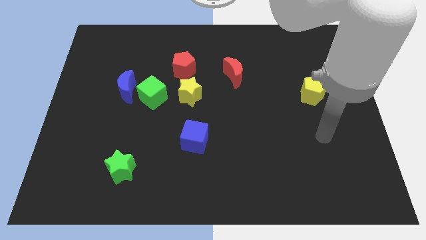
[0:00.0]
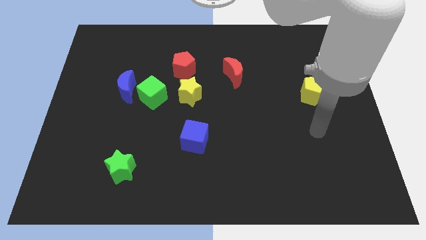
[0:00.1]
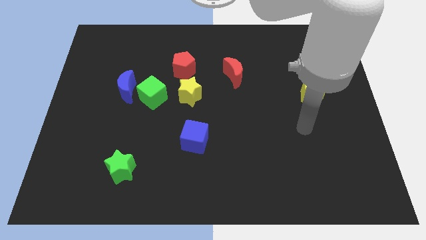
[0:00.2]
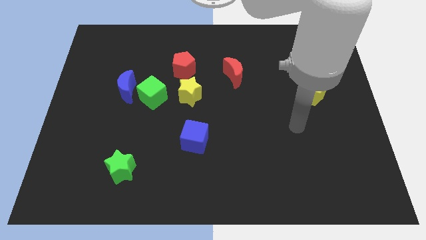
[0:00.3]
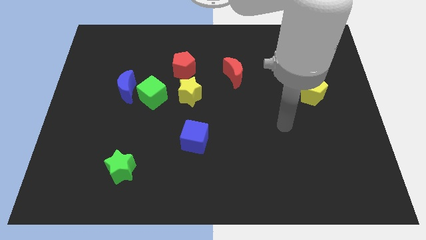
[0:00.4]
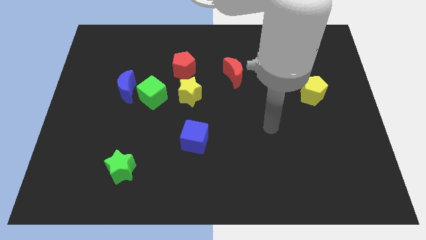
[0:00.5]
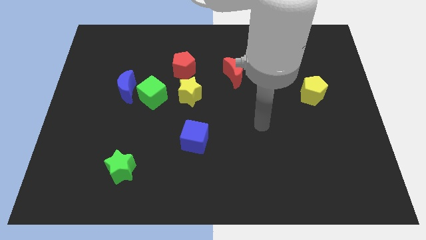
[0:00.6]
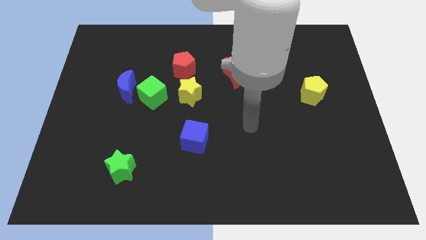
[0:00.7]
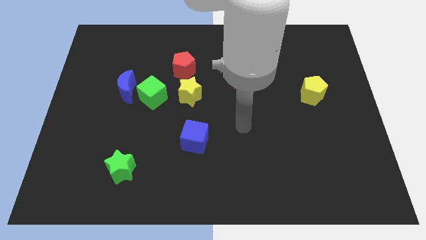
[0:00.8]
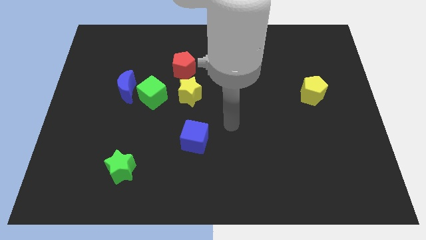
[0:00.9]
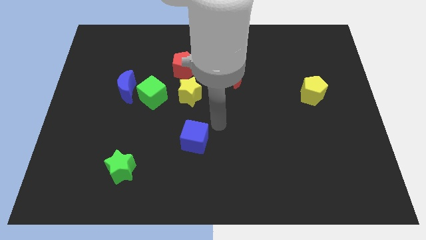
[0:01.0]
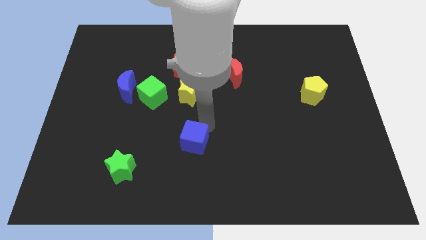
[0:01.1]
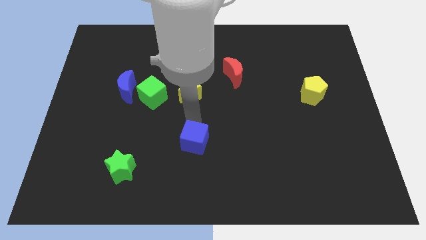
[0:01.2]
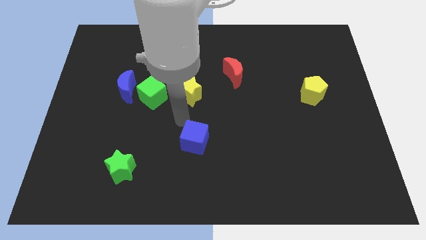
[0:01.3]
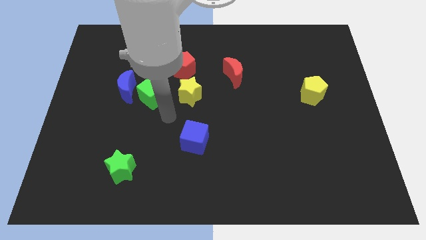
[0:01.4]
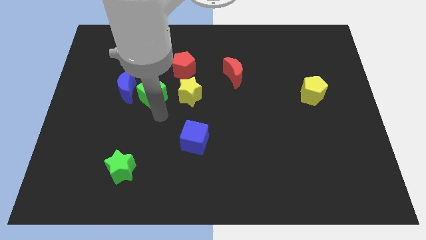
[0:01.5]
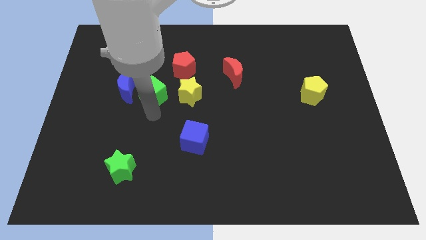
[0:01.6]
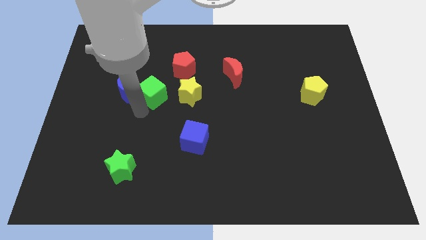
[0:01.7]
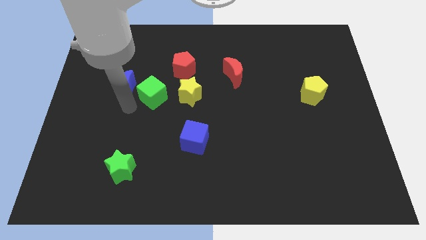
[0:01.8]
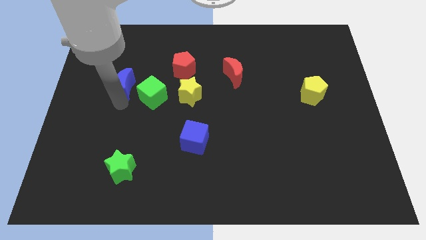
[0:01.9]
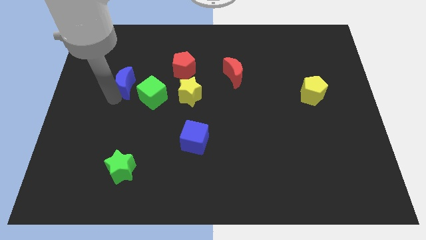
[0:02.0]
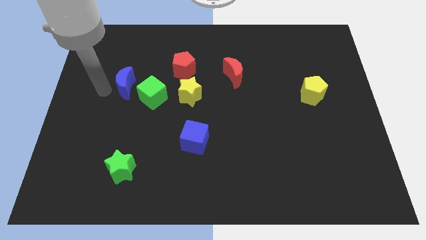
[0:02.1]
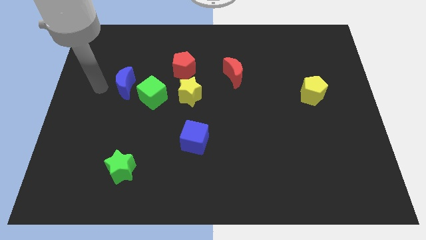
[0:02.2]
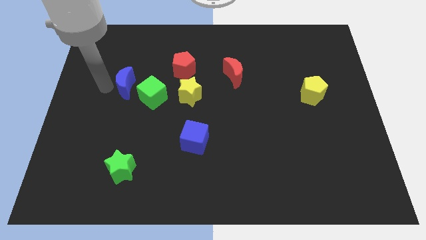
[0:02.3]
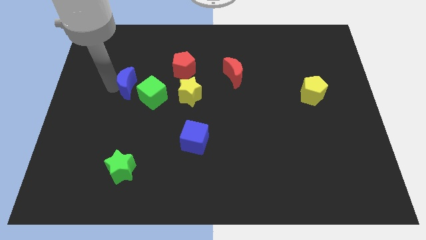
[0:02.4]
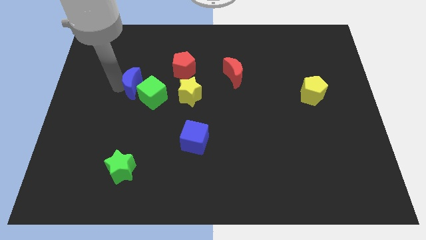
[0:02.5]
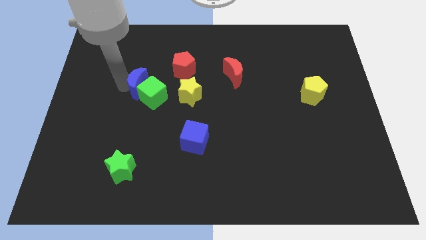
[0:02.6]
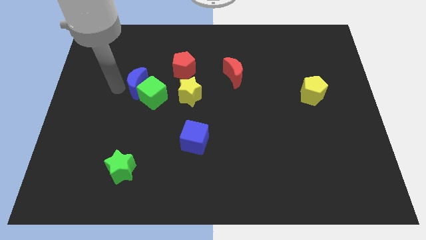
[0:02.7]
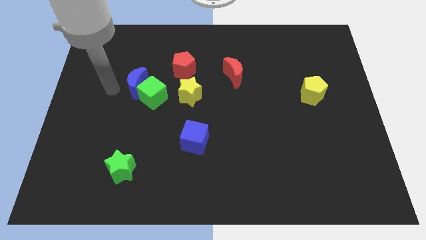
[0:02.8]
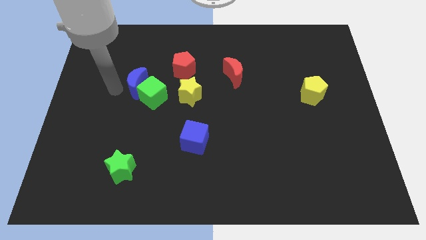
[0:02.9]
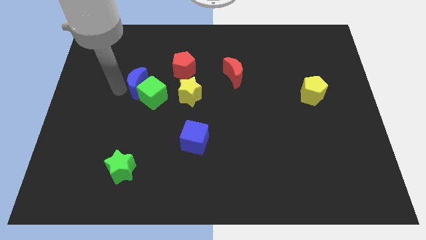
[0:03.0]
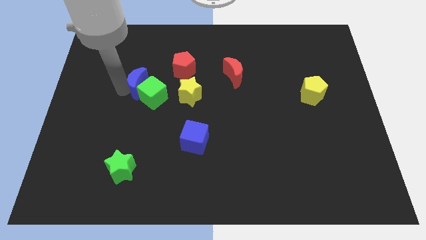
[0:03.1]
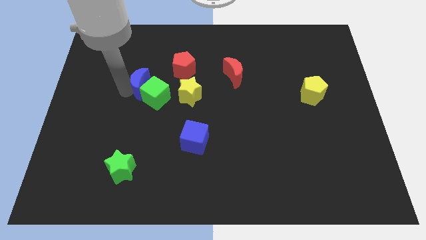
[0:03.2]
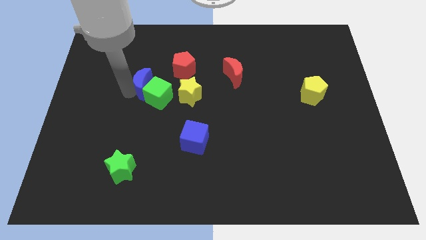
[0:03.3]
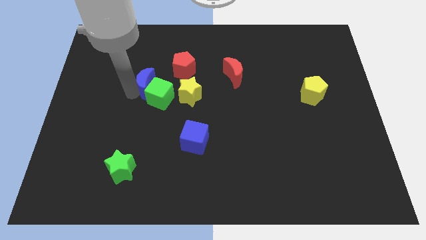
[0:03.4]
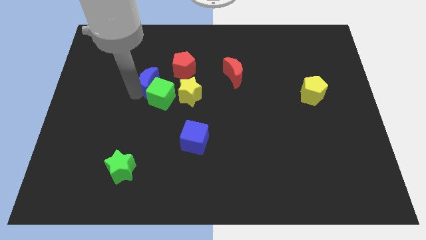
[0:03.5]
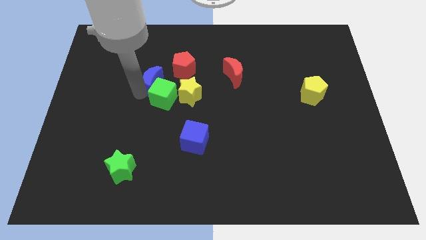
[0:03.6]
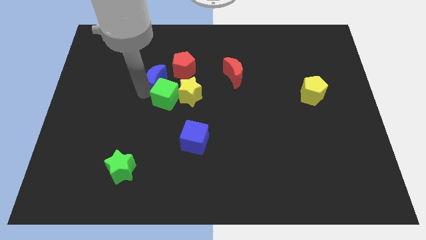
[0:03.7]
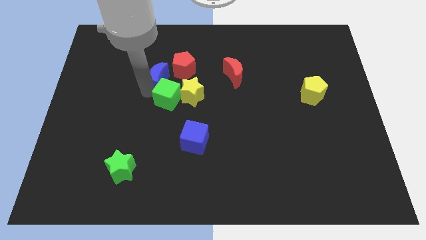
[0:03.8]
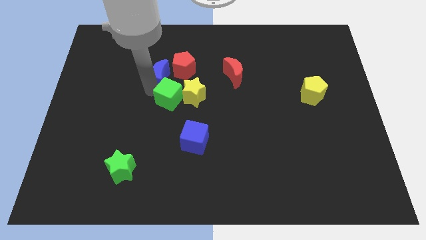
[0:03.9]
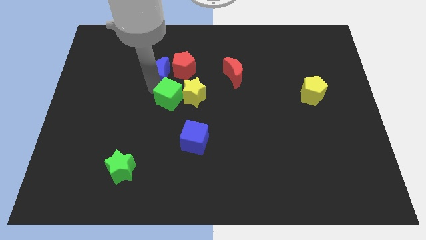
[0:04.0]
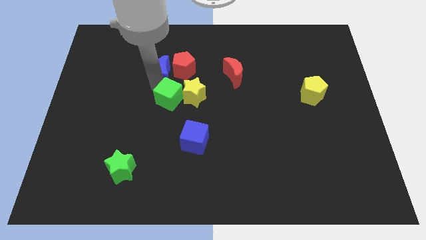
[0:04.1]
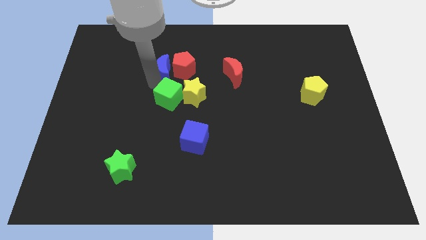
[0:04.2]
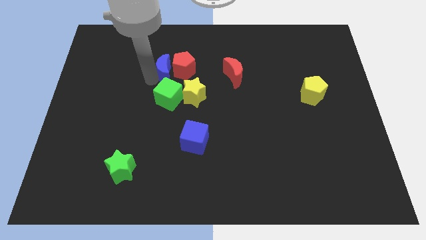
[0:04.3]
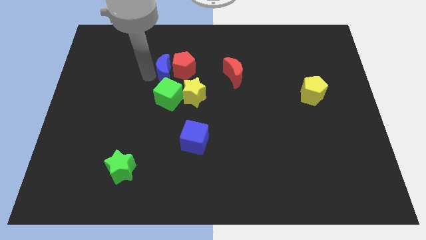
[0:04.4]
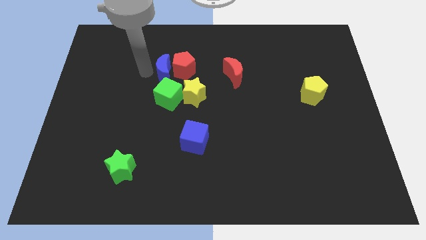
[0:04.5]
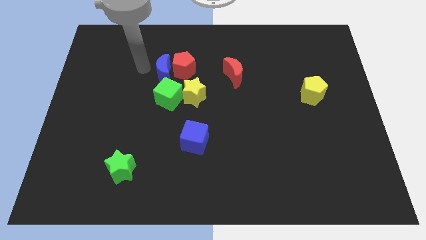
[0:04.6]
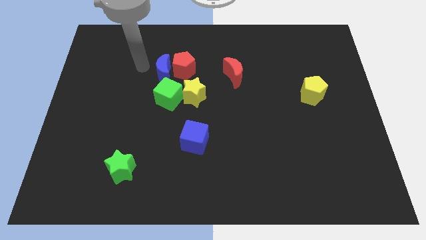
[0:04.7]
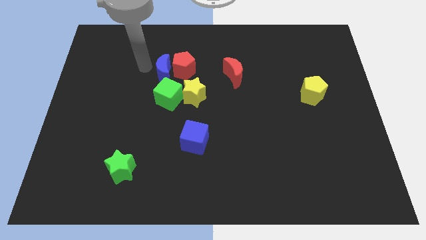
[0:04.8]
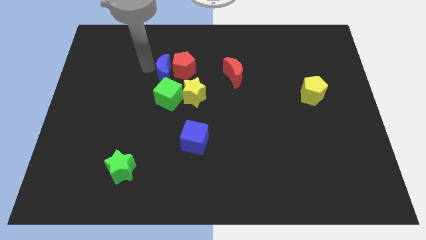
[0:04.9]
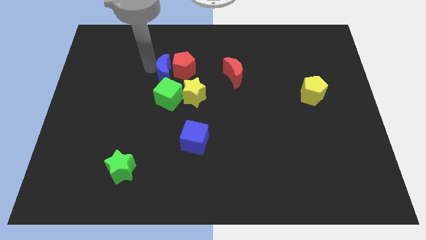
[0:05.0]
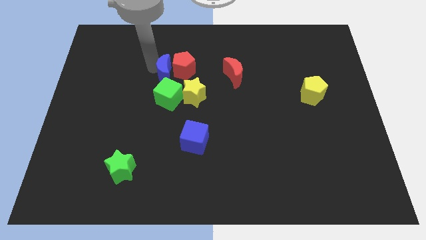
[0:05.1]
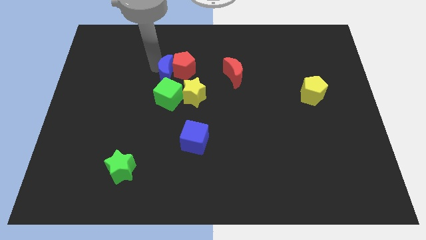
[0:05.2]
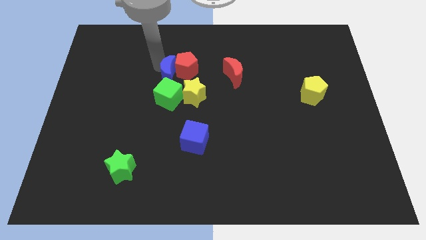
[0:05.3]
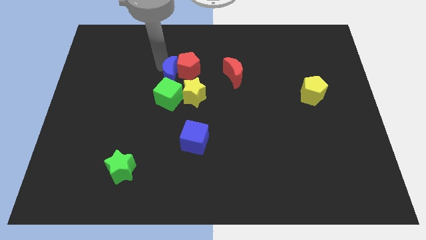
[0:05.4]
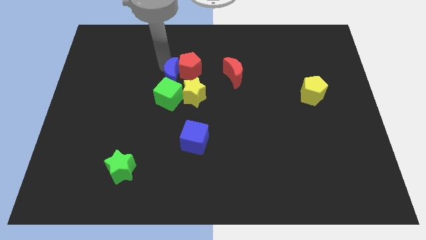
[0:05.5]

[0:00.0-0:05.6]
move the blue moon diagonally up and to the right of the green cube

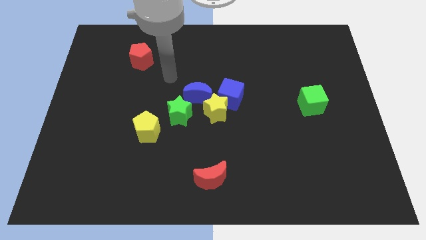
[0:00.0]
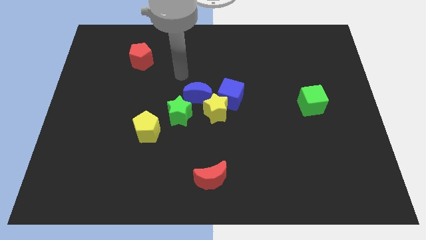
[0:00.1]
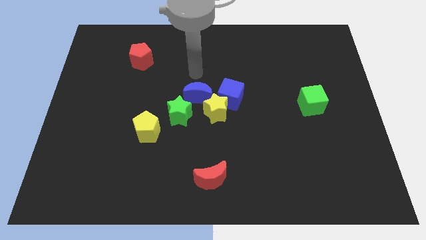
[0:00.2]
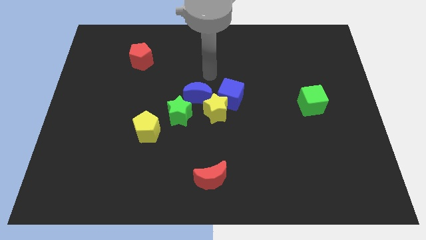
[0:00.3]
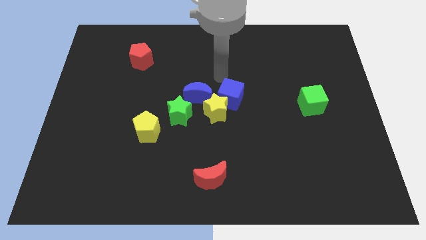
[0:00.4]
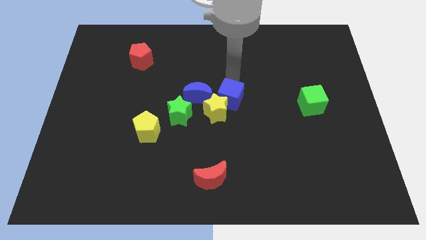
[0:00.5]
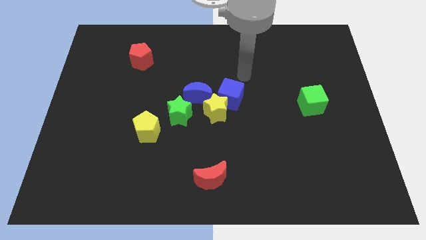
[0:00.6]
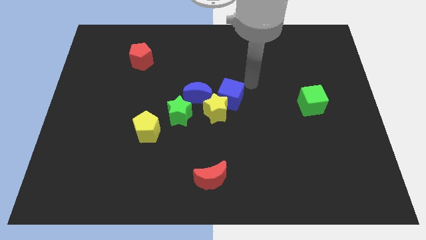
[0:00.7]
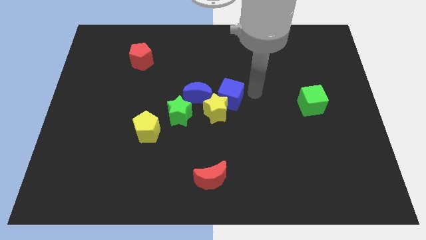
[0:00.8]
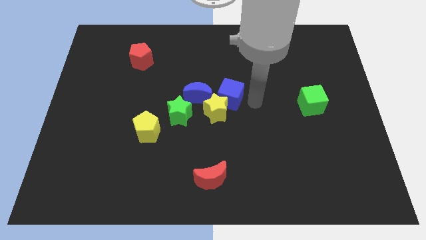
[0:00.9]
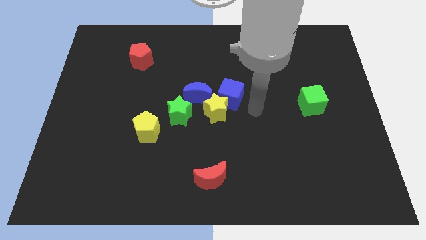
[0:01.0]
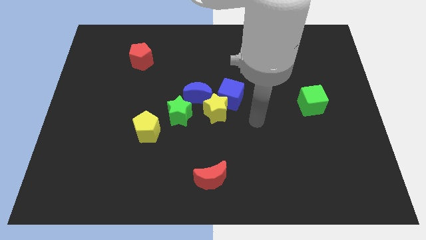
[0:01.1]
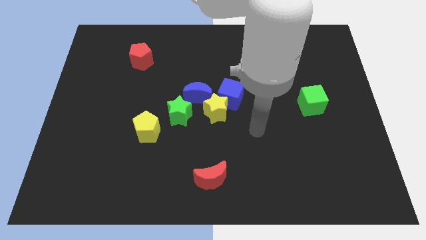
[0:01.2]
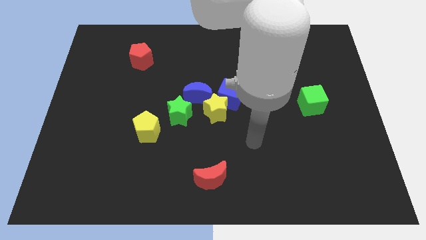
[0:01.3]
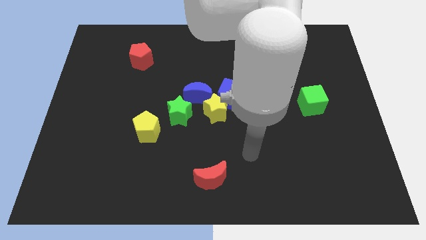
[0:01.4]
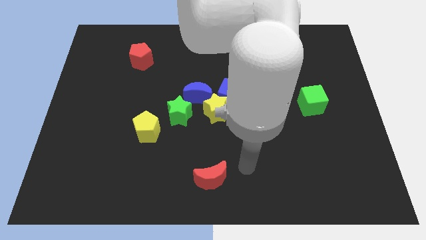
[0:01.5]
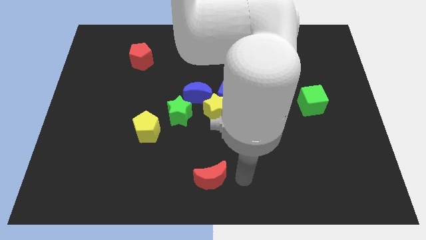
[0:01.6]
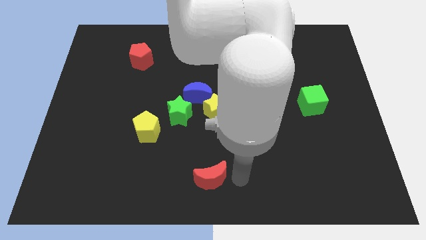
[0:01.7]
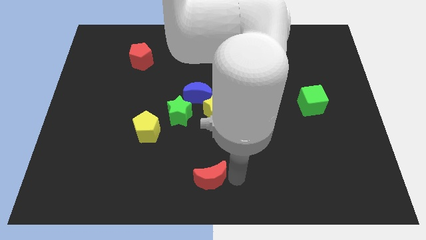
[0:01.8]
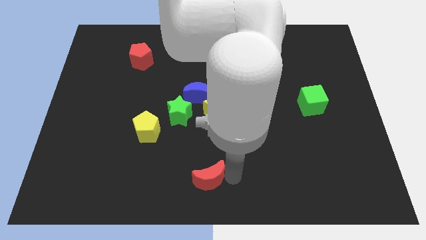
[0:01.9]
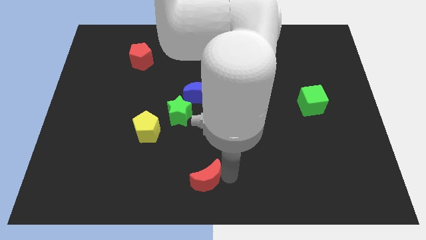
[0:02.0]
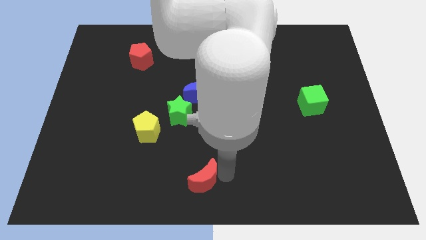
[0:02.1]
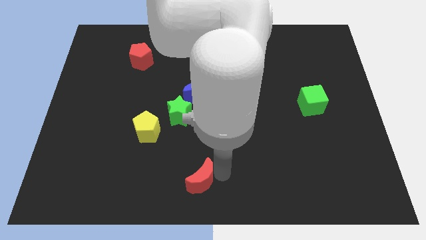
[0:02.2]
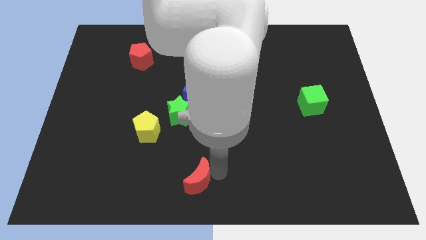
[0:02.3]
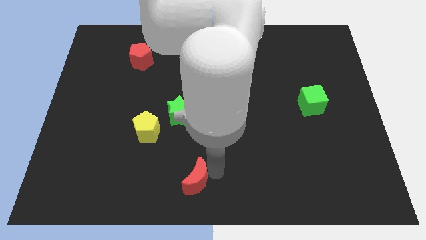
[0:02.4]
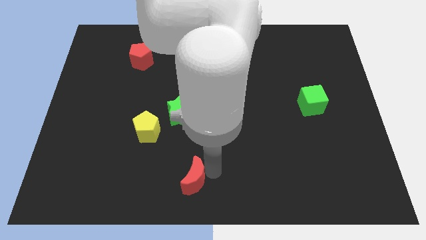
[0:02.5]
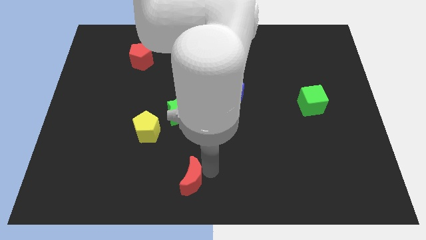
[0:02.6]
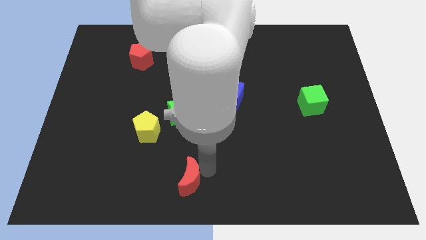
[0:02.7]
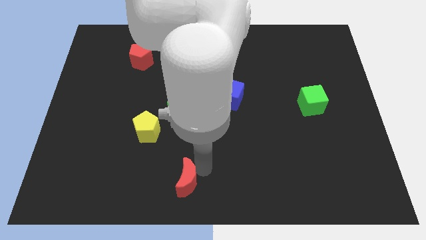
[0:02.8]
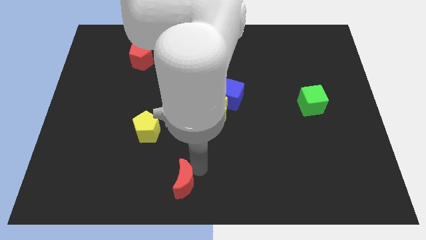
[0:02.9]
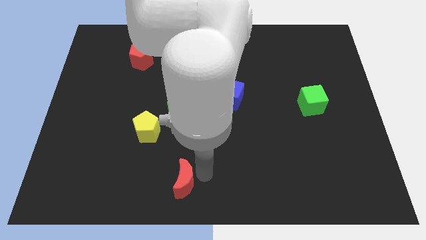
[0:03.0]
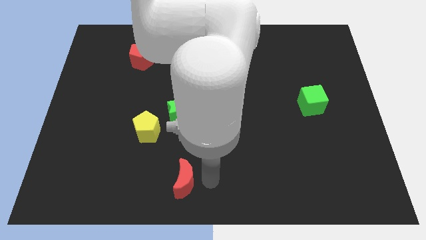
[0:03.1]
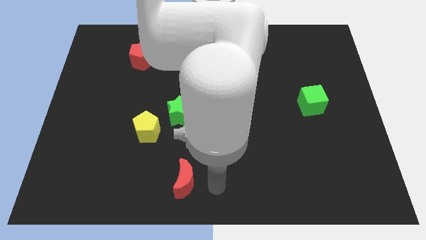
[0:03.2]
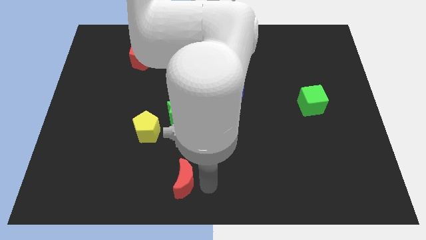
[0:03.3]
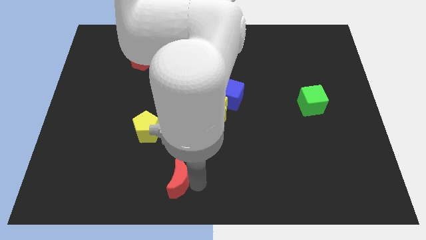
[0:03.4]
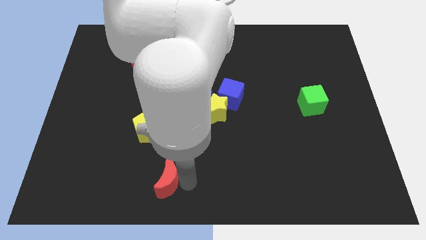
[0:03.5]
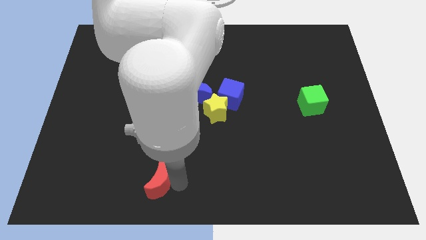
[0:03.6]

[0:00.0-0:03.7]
move the red moon to the bottom of the yellow pentagon
